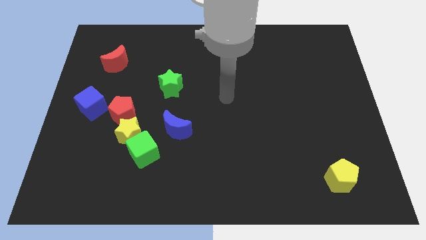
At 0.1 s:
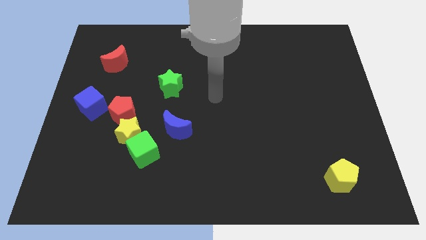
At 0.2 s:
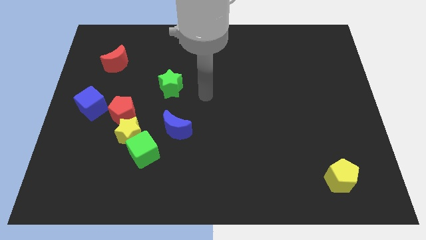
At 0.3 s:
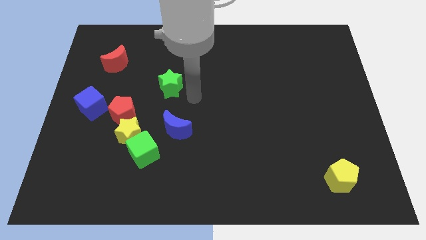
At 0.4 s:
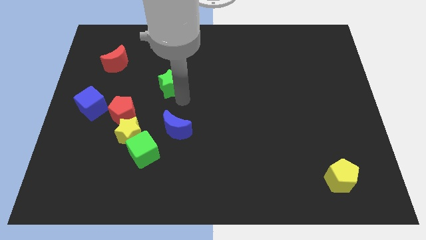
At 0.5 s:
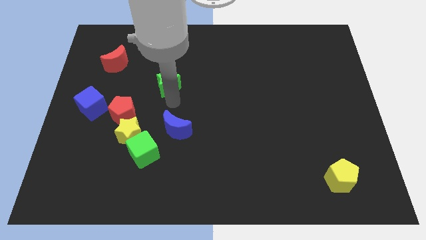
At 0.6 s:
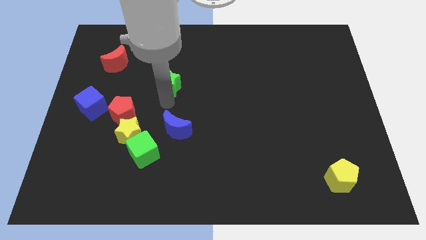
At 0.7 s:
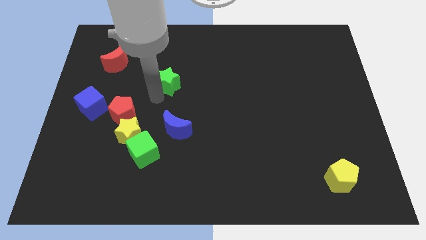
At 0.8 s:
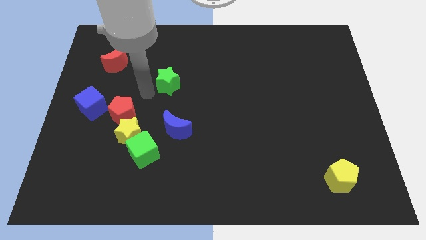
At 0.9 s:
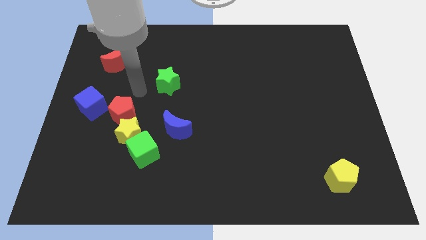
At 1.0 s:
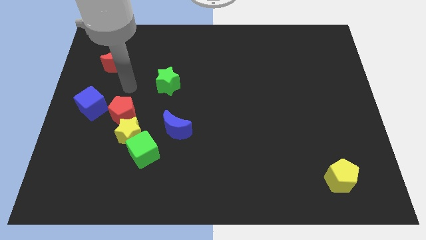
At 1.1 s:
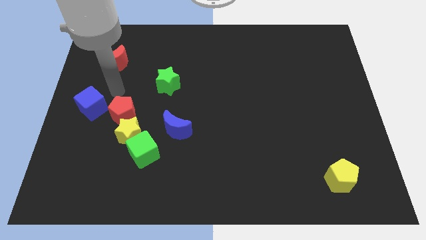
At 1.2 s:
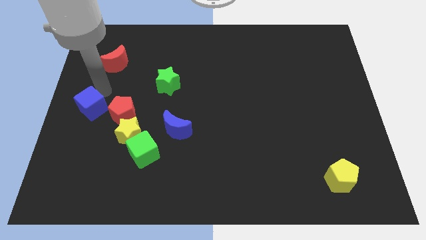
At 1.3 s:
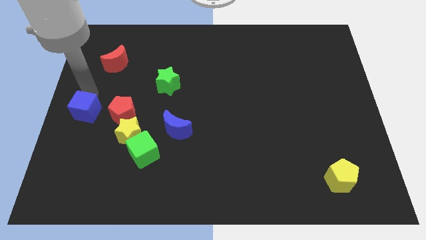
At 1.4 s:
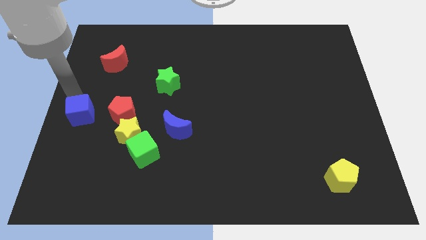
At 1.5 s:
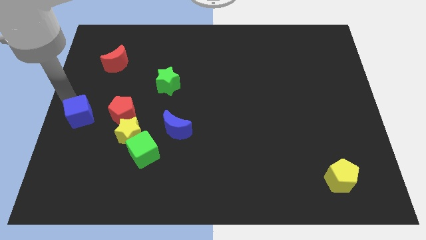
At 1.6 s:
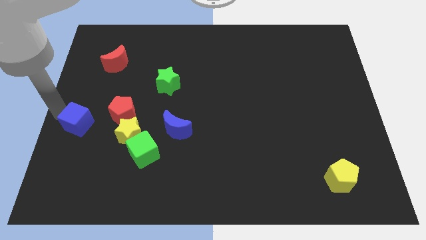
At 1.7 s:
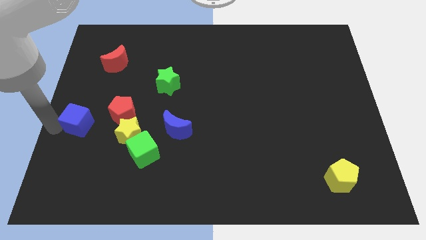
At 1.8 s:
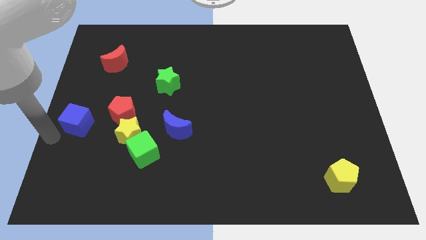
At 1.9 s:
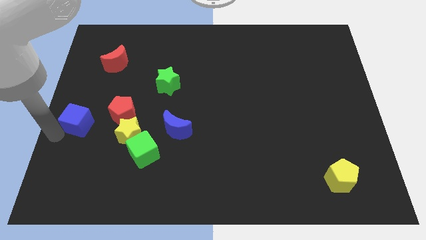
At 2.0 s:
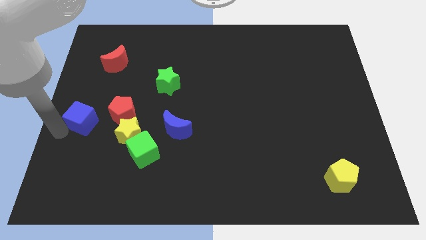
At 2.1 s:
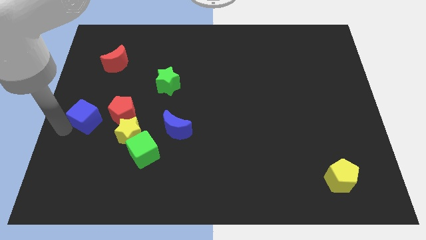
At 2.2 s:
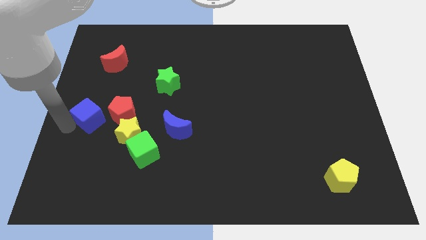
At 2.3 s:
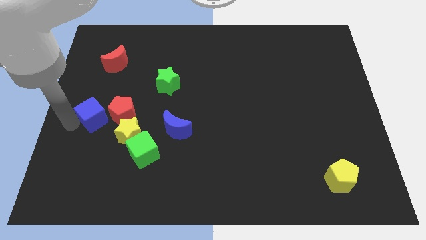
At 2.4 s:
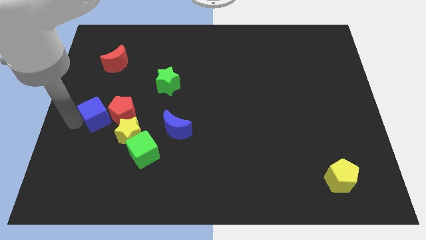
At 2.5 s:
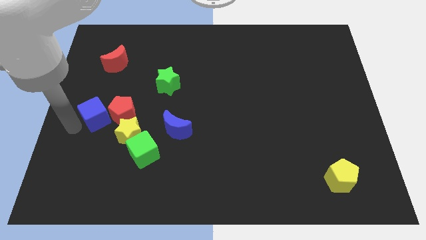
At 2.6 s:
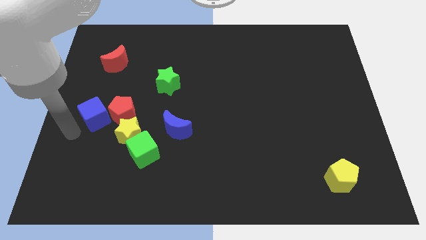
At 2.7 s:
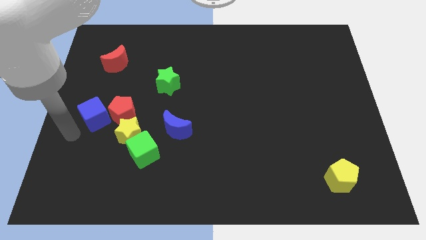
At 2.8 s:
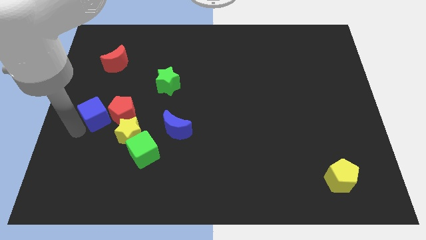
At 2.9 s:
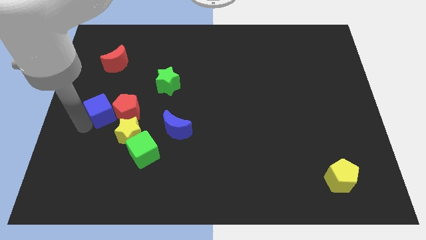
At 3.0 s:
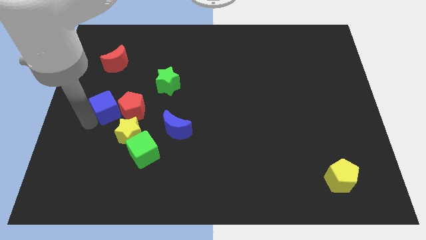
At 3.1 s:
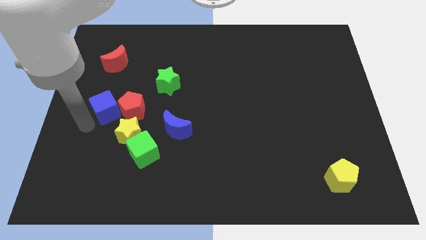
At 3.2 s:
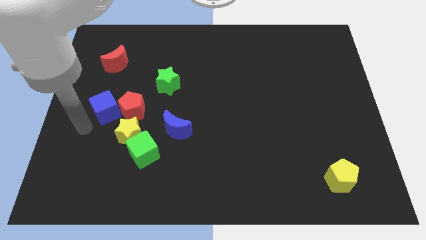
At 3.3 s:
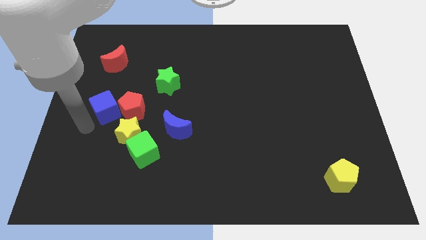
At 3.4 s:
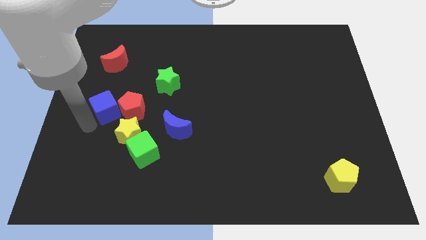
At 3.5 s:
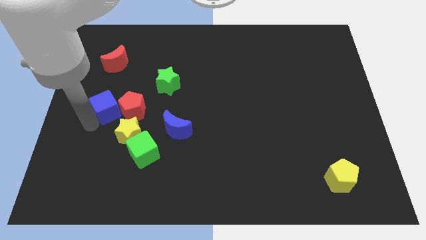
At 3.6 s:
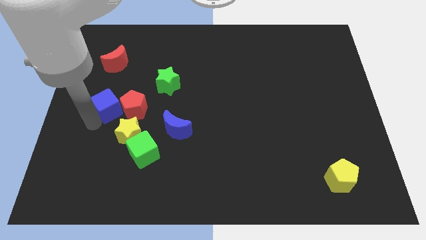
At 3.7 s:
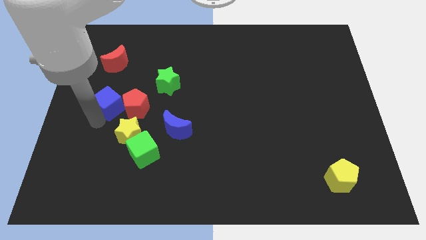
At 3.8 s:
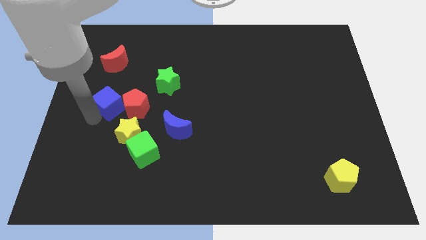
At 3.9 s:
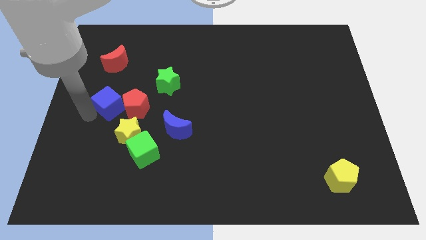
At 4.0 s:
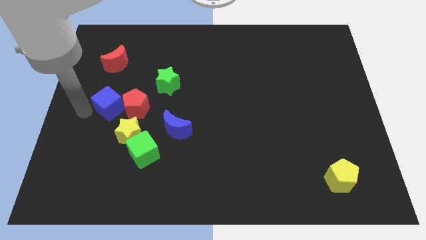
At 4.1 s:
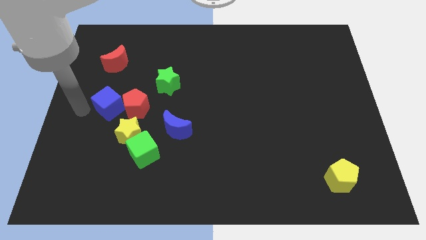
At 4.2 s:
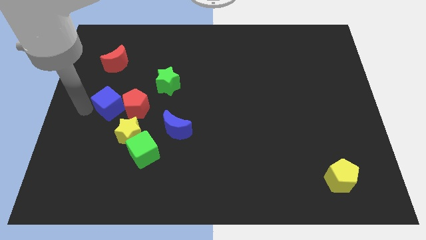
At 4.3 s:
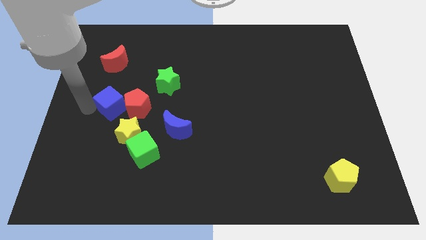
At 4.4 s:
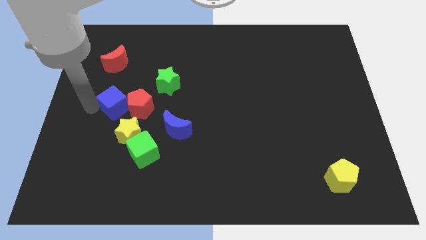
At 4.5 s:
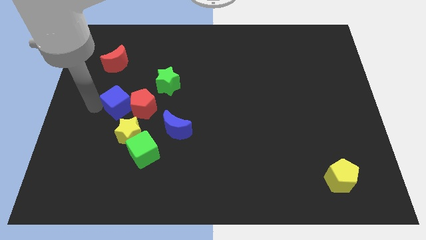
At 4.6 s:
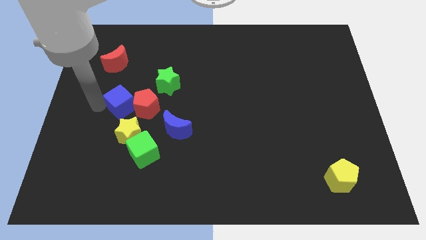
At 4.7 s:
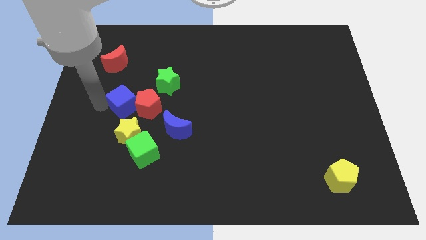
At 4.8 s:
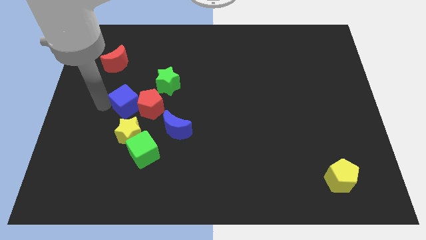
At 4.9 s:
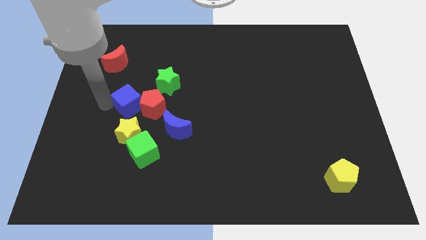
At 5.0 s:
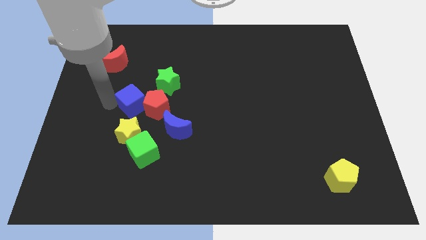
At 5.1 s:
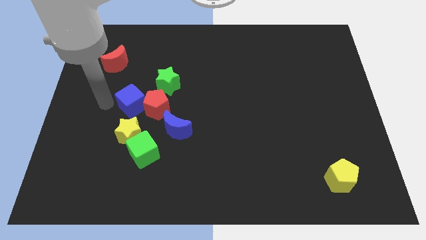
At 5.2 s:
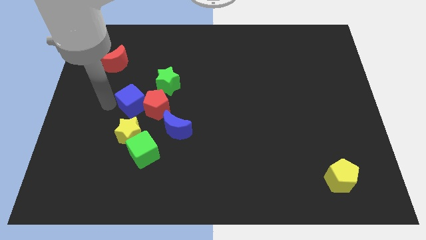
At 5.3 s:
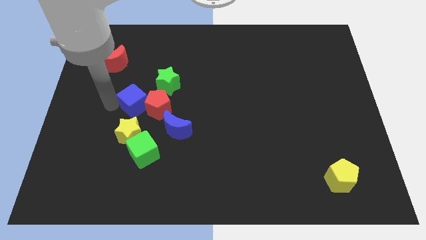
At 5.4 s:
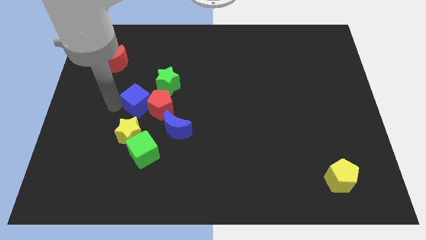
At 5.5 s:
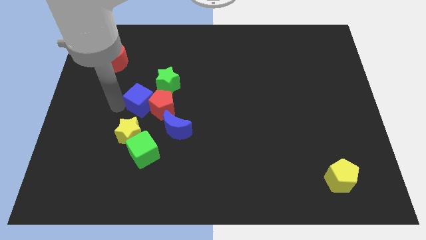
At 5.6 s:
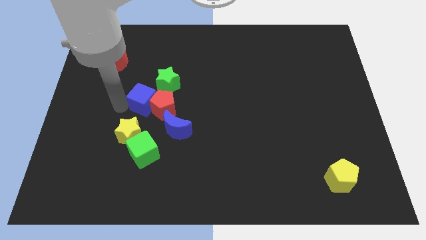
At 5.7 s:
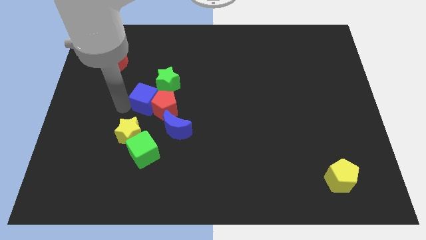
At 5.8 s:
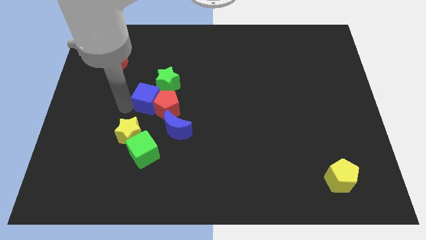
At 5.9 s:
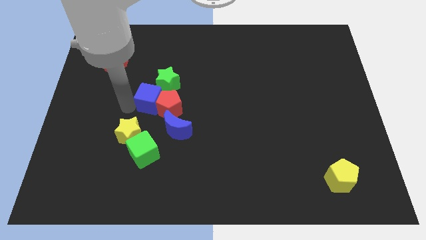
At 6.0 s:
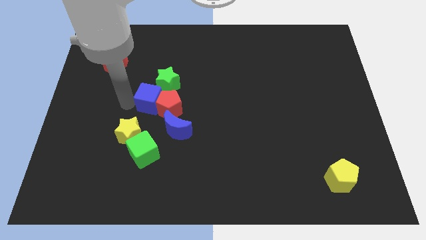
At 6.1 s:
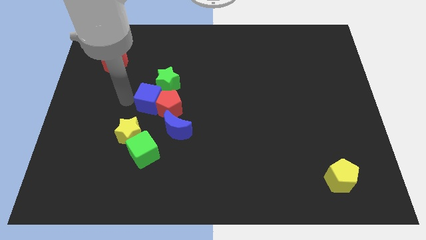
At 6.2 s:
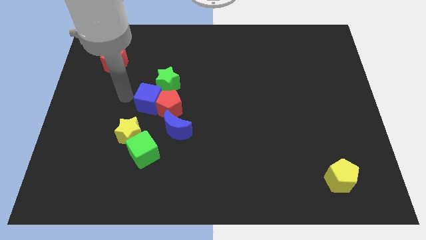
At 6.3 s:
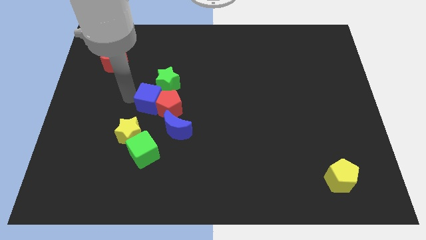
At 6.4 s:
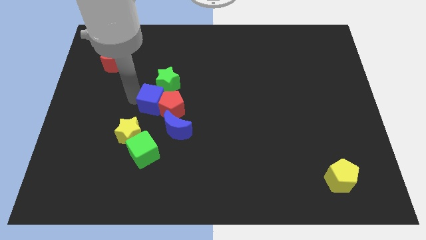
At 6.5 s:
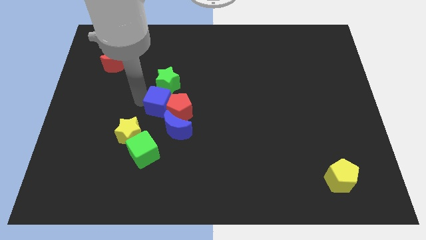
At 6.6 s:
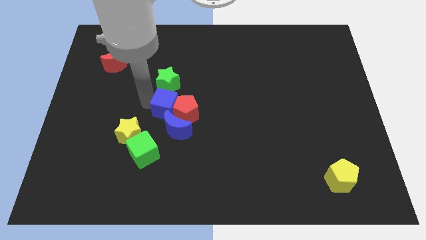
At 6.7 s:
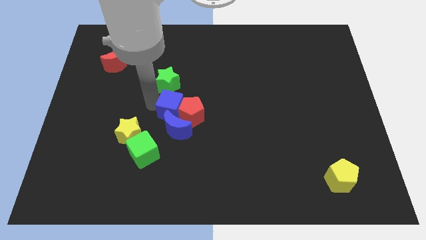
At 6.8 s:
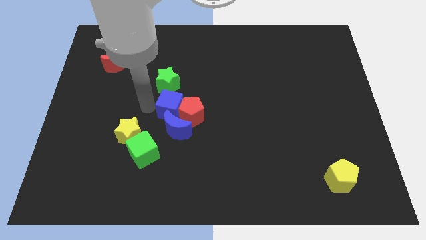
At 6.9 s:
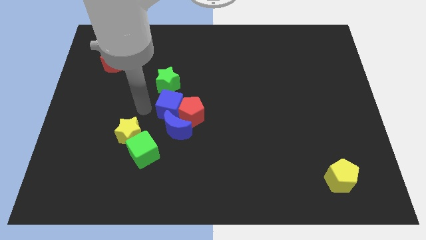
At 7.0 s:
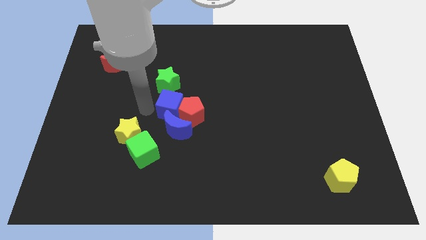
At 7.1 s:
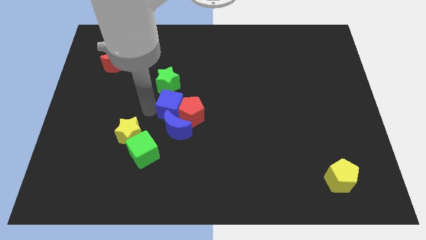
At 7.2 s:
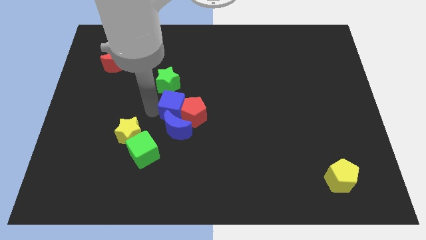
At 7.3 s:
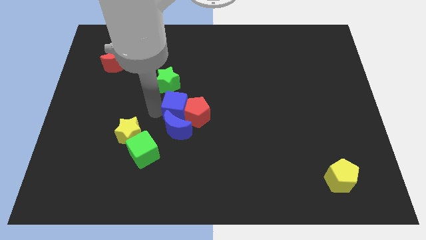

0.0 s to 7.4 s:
move the blue cube right

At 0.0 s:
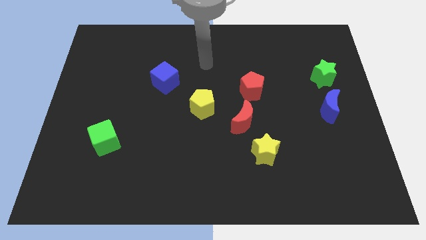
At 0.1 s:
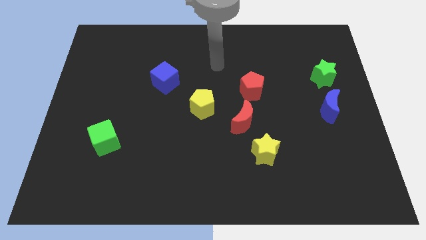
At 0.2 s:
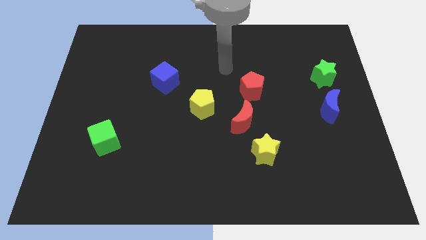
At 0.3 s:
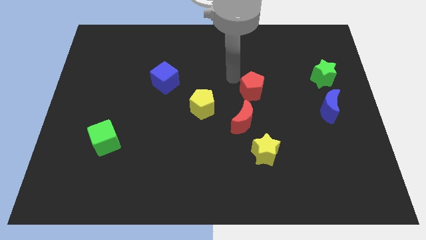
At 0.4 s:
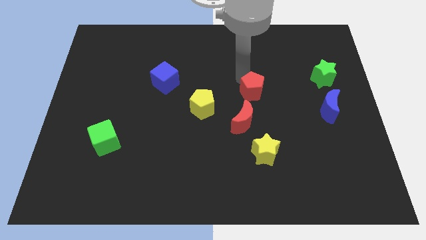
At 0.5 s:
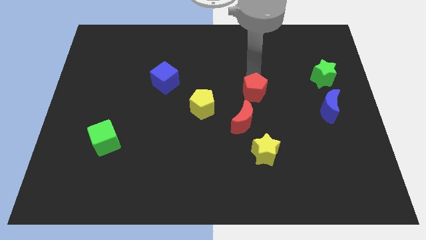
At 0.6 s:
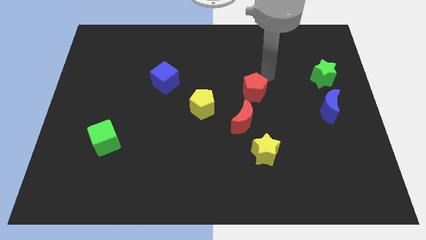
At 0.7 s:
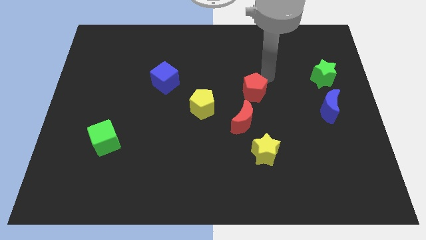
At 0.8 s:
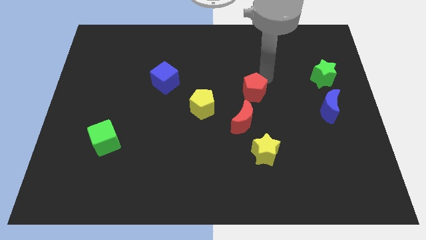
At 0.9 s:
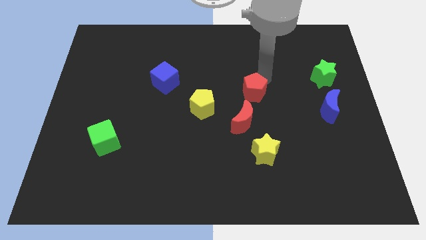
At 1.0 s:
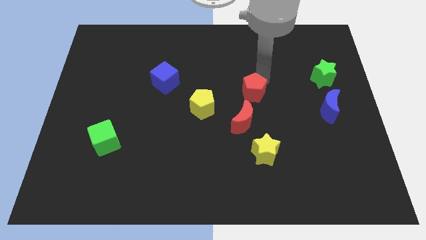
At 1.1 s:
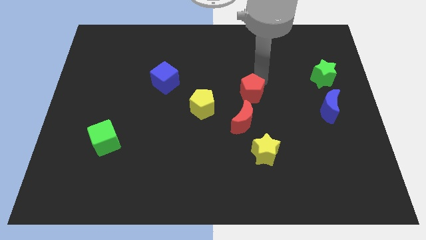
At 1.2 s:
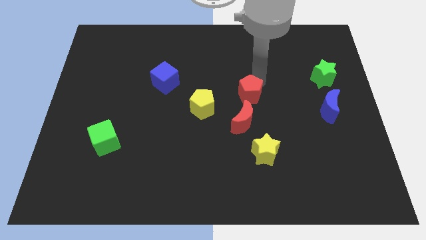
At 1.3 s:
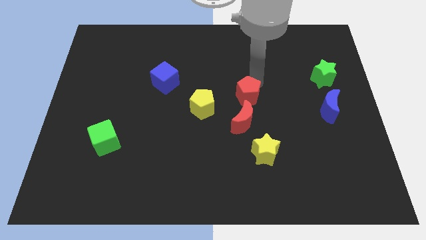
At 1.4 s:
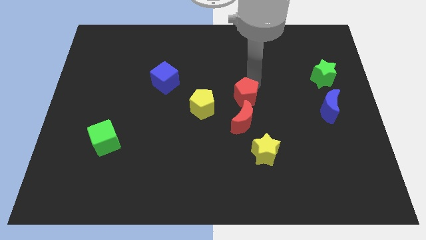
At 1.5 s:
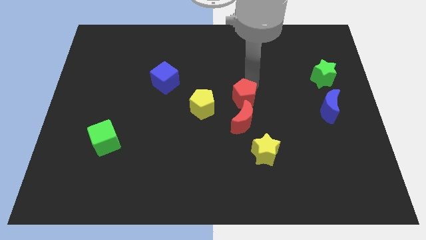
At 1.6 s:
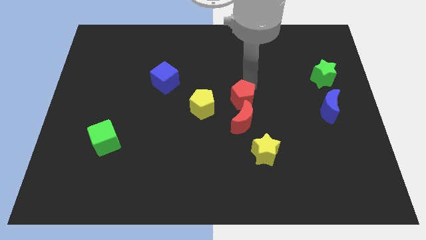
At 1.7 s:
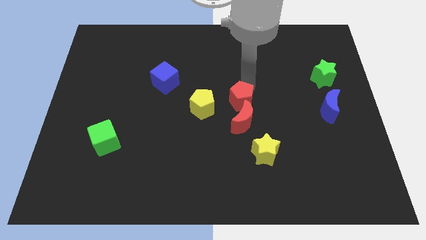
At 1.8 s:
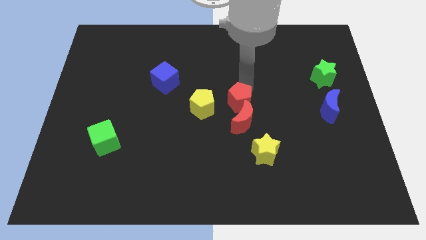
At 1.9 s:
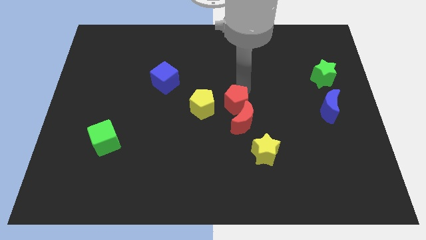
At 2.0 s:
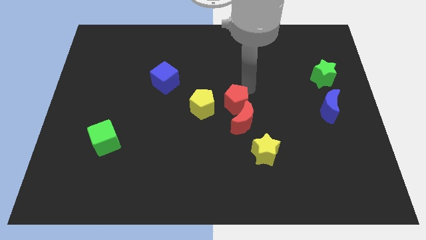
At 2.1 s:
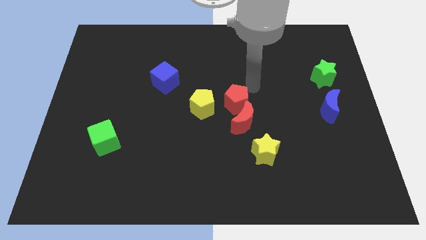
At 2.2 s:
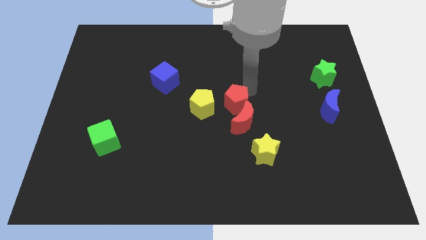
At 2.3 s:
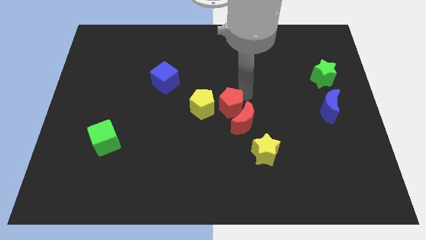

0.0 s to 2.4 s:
push the red pentagon a little bit diagonally down and to the left
